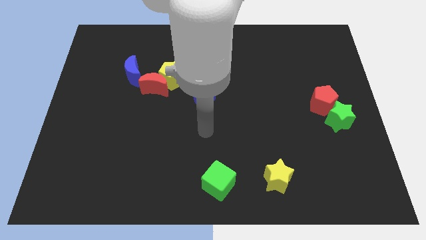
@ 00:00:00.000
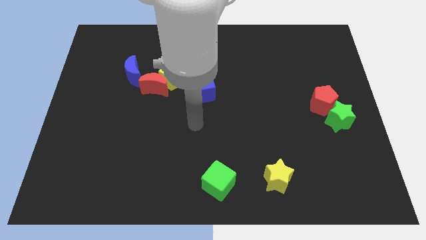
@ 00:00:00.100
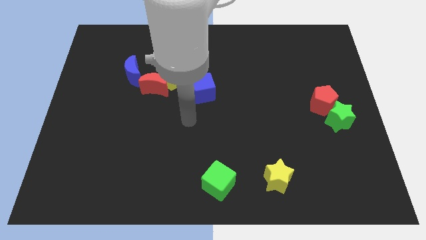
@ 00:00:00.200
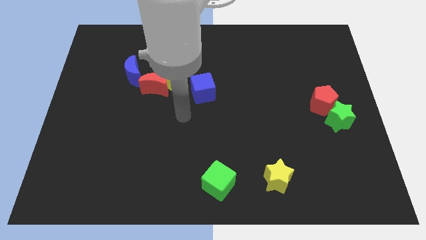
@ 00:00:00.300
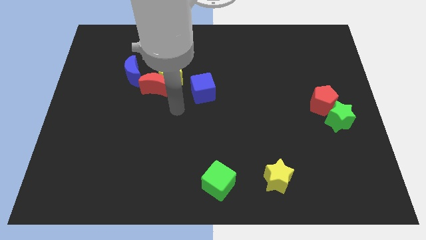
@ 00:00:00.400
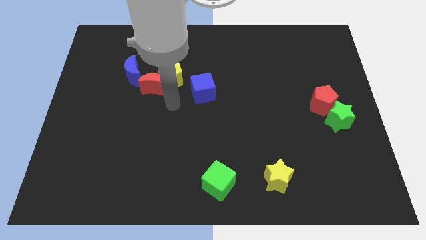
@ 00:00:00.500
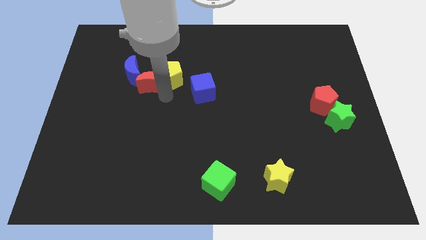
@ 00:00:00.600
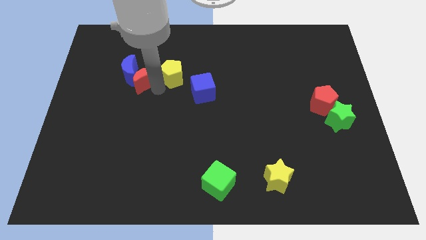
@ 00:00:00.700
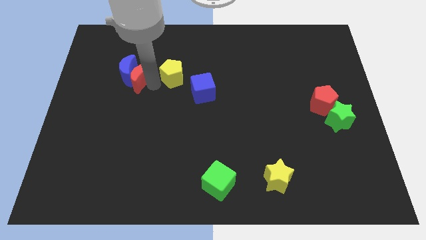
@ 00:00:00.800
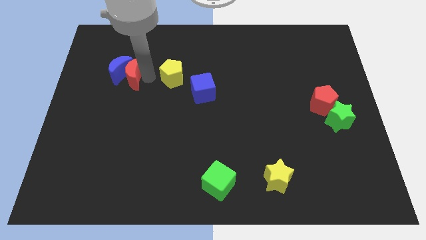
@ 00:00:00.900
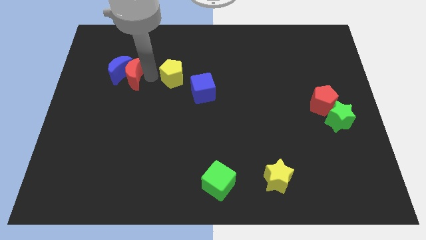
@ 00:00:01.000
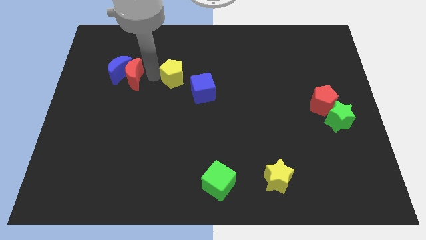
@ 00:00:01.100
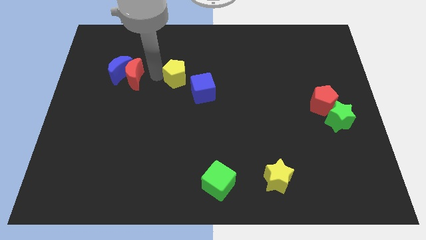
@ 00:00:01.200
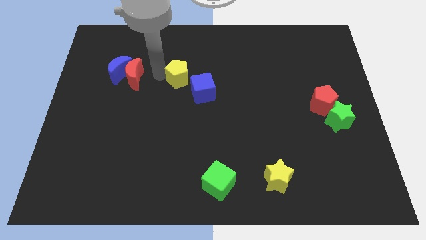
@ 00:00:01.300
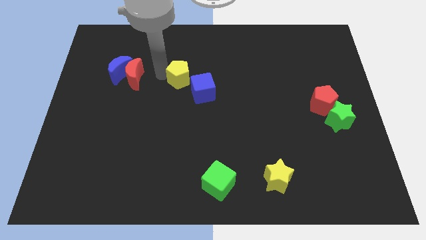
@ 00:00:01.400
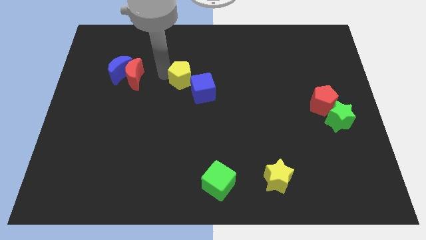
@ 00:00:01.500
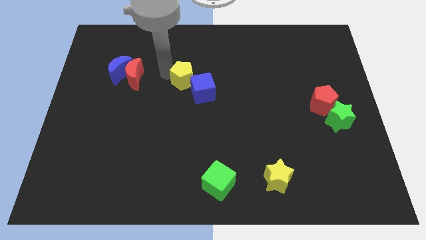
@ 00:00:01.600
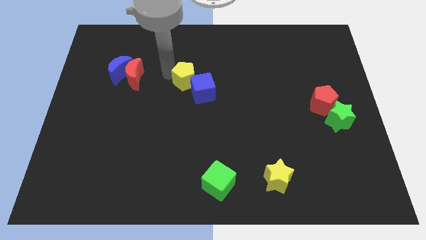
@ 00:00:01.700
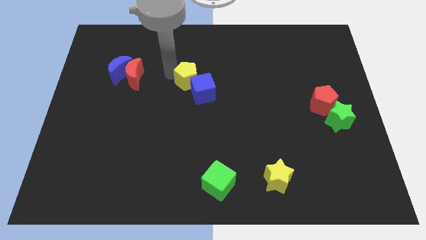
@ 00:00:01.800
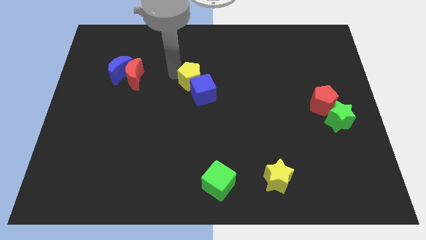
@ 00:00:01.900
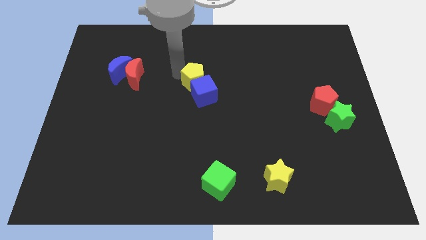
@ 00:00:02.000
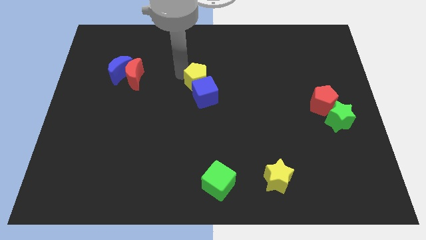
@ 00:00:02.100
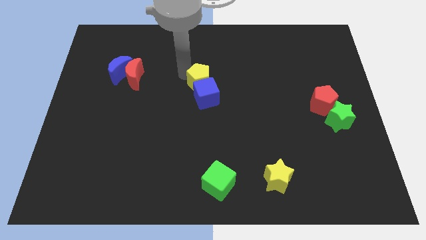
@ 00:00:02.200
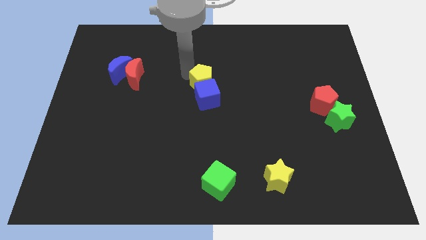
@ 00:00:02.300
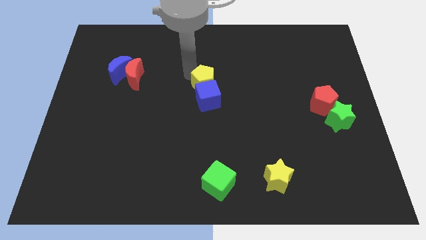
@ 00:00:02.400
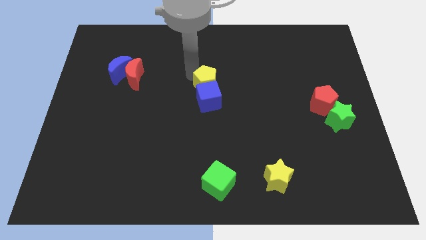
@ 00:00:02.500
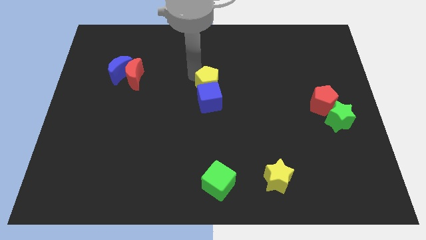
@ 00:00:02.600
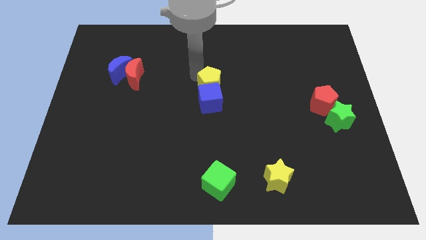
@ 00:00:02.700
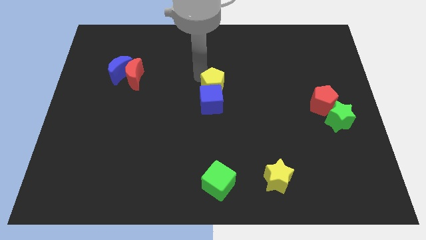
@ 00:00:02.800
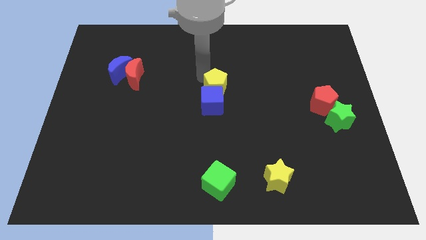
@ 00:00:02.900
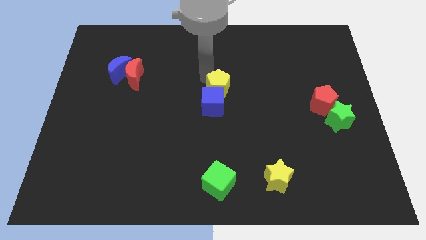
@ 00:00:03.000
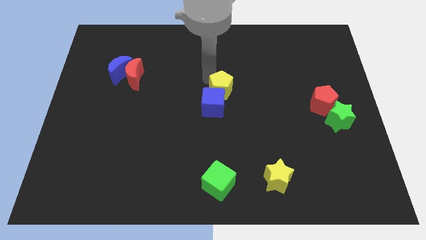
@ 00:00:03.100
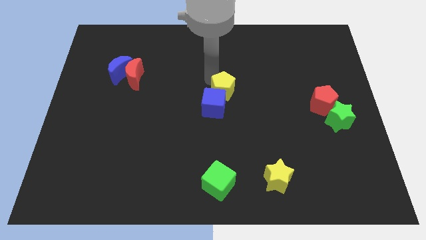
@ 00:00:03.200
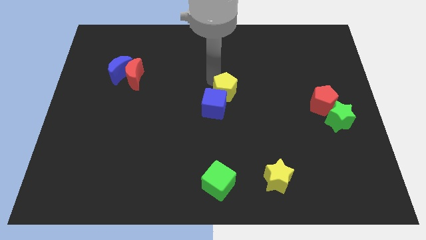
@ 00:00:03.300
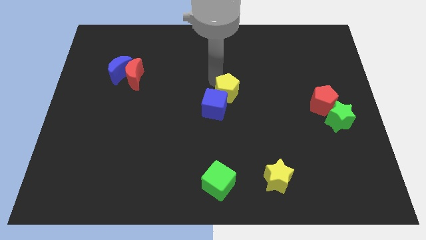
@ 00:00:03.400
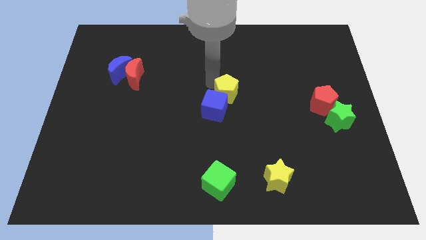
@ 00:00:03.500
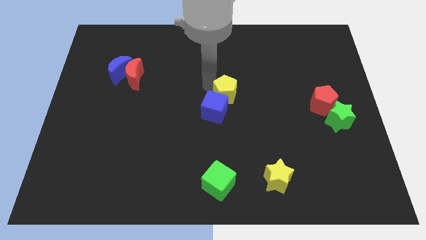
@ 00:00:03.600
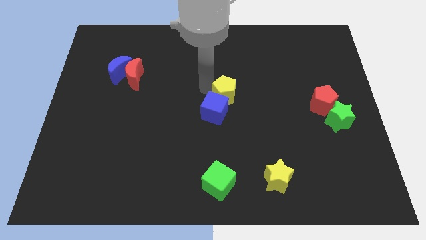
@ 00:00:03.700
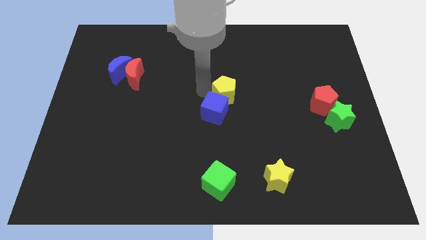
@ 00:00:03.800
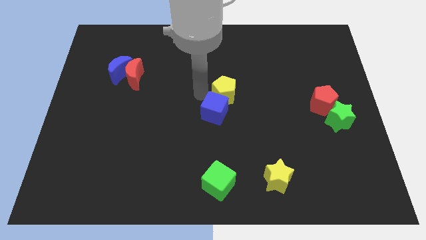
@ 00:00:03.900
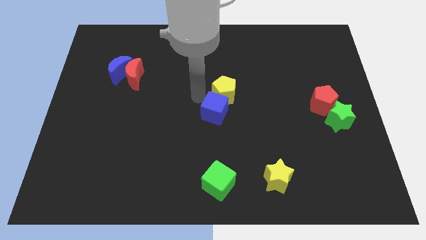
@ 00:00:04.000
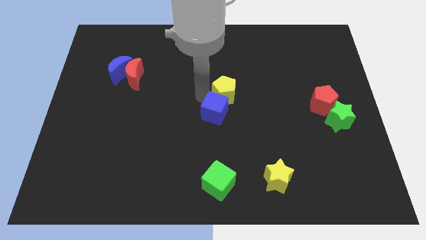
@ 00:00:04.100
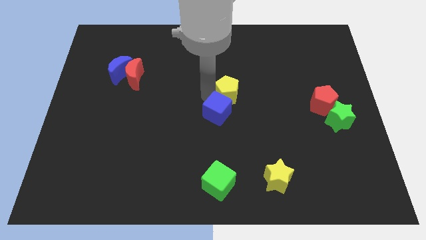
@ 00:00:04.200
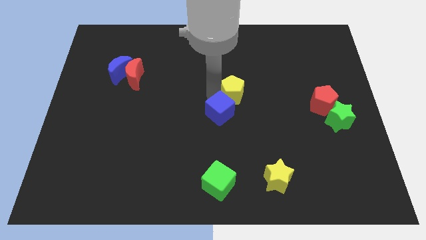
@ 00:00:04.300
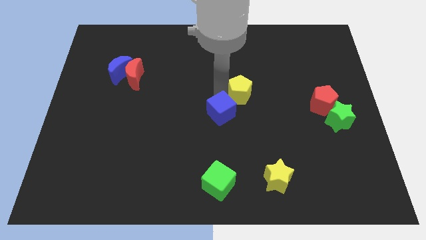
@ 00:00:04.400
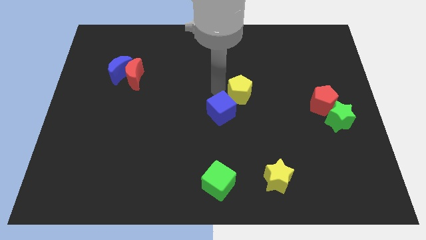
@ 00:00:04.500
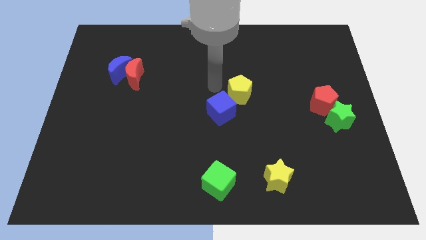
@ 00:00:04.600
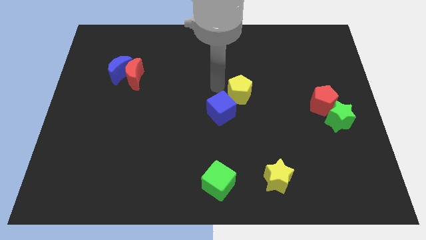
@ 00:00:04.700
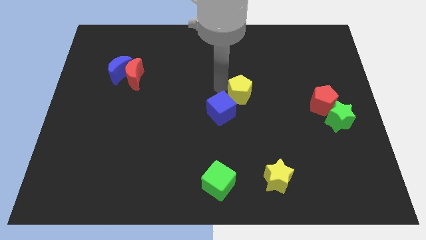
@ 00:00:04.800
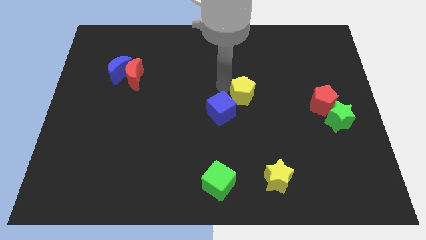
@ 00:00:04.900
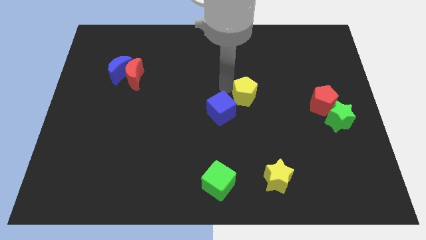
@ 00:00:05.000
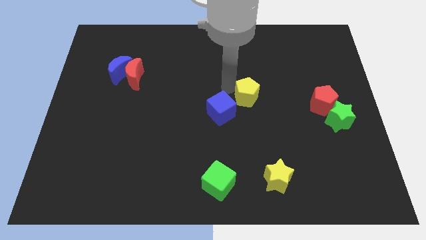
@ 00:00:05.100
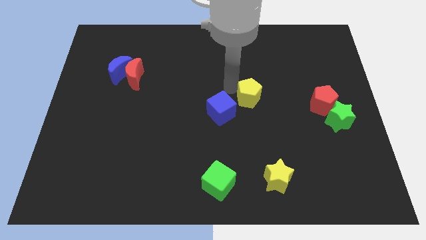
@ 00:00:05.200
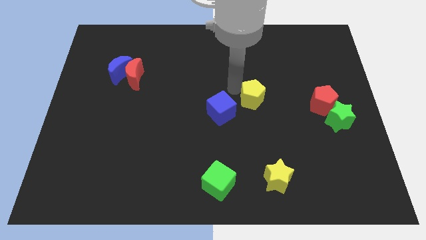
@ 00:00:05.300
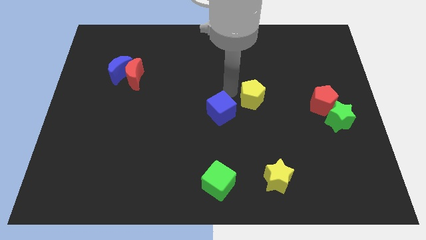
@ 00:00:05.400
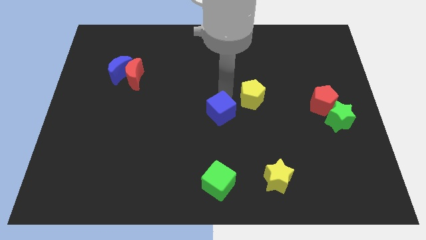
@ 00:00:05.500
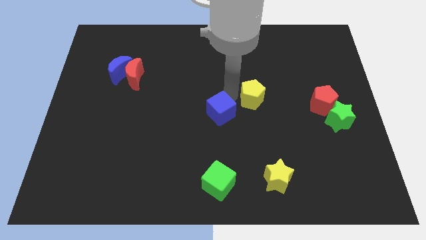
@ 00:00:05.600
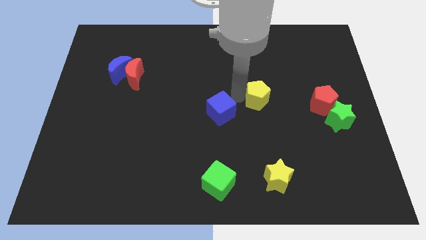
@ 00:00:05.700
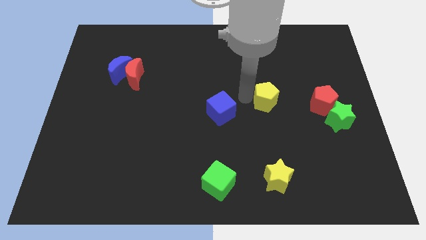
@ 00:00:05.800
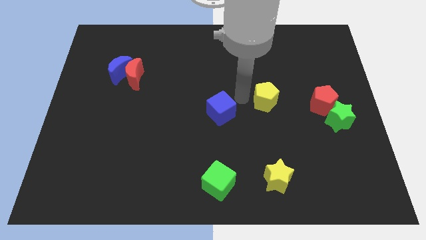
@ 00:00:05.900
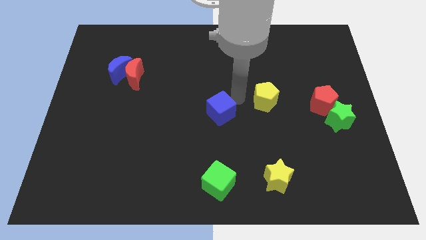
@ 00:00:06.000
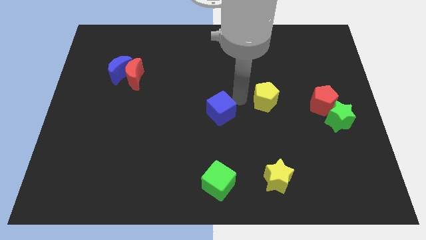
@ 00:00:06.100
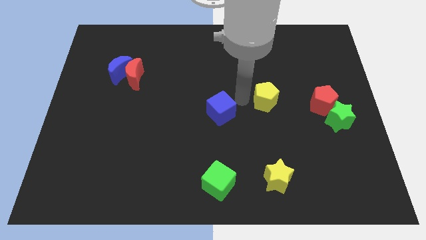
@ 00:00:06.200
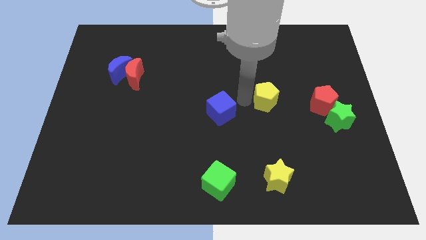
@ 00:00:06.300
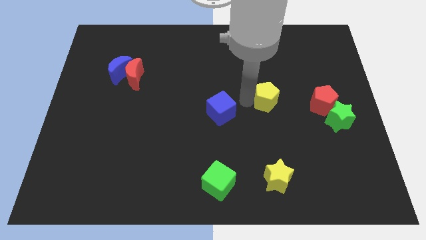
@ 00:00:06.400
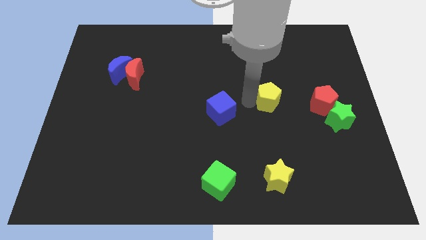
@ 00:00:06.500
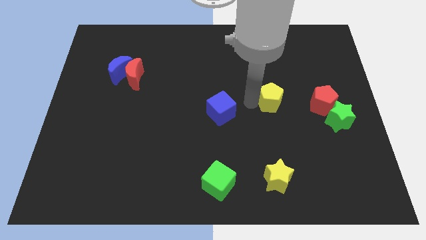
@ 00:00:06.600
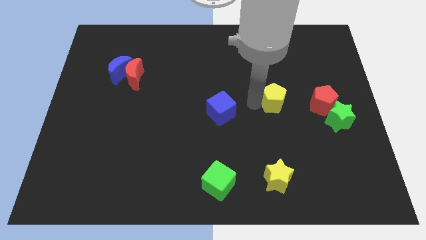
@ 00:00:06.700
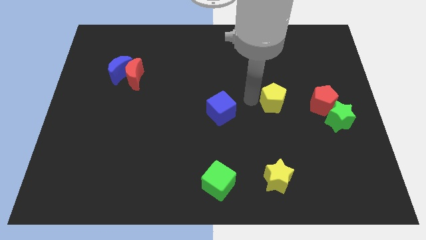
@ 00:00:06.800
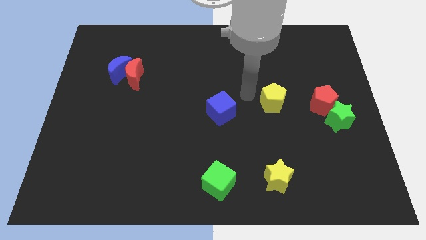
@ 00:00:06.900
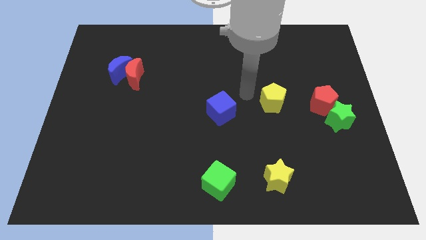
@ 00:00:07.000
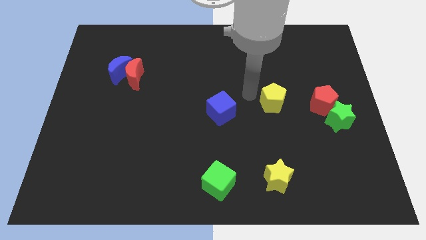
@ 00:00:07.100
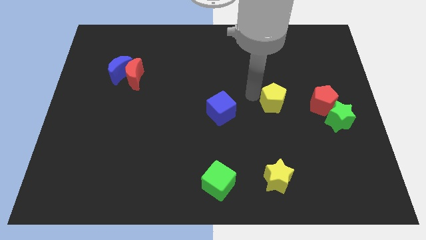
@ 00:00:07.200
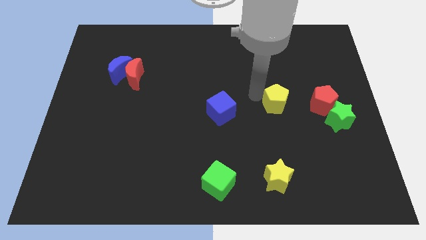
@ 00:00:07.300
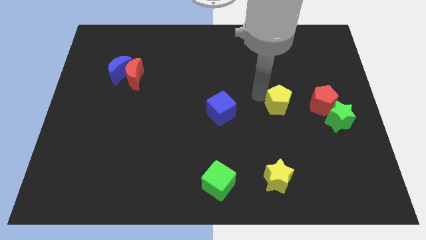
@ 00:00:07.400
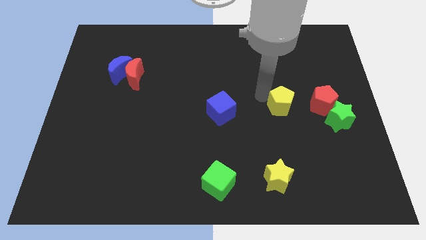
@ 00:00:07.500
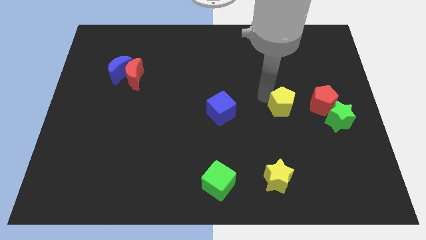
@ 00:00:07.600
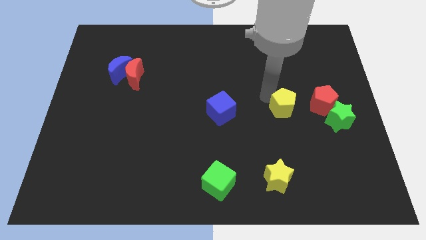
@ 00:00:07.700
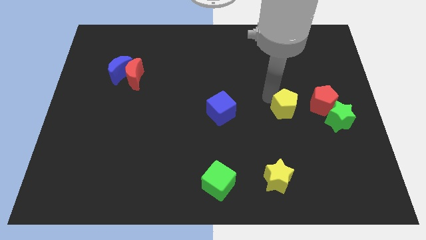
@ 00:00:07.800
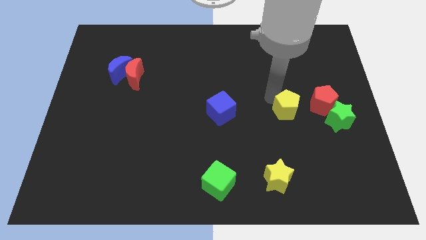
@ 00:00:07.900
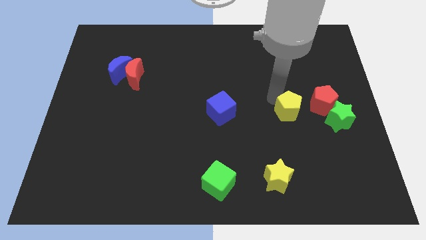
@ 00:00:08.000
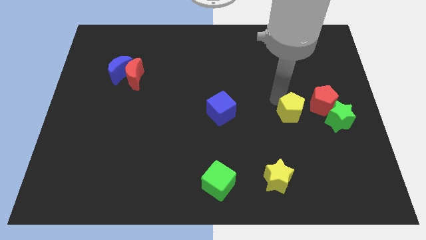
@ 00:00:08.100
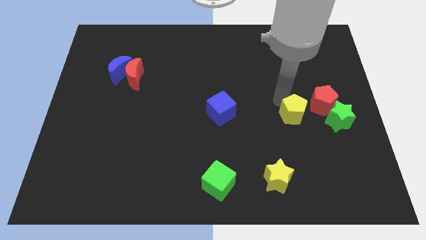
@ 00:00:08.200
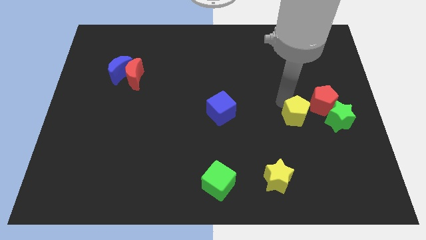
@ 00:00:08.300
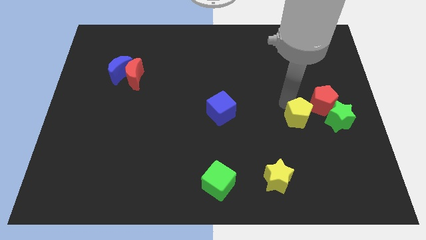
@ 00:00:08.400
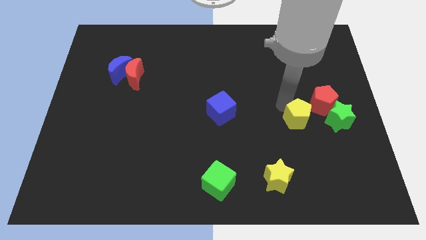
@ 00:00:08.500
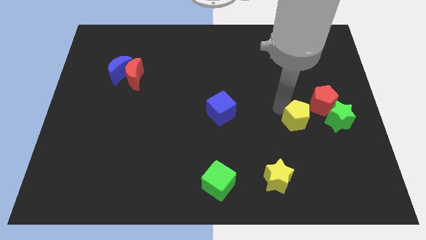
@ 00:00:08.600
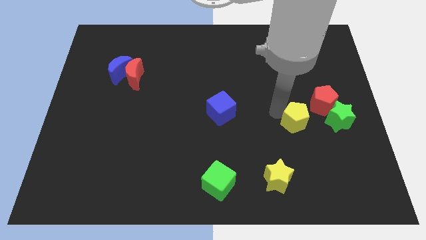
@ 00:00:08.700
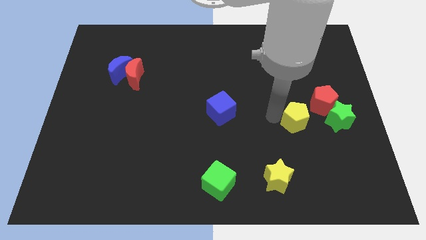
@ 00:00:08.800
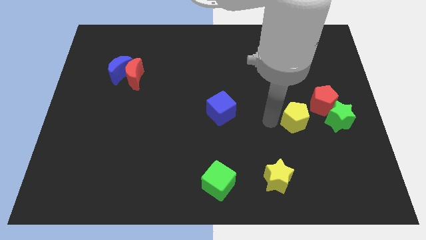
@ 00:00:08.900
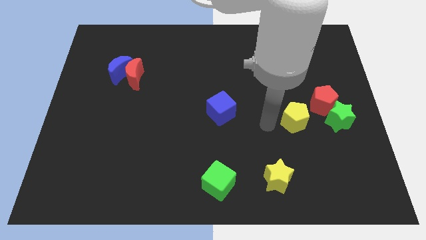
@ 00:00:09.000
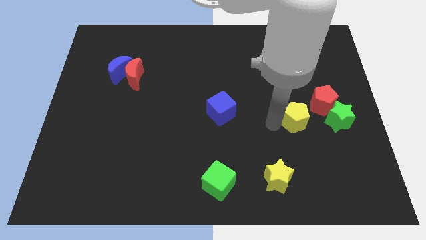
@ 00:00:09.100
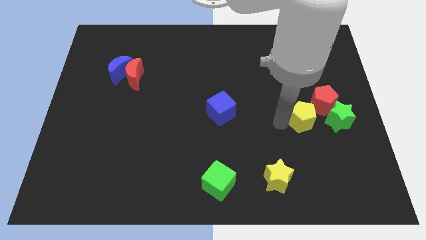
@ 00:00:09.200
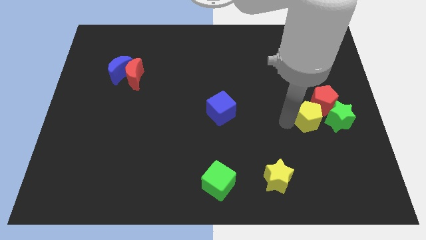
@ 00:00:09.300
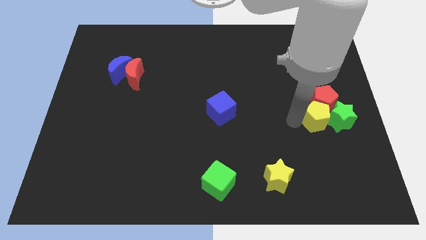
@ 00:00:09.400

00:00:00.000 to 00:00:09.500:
slide the yellow pentagon towards the green star
